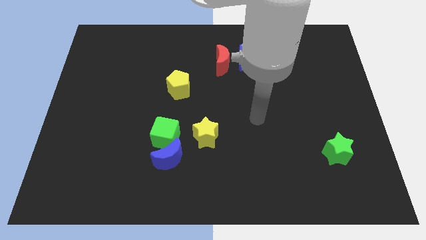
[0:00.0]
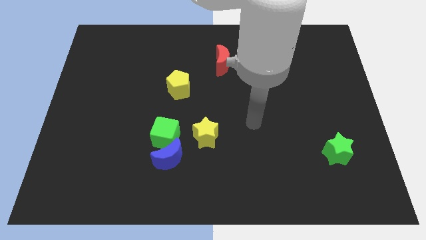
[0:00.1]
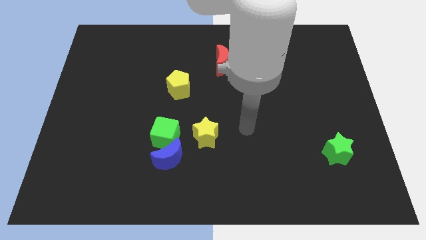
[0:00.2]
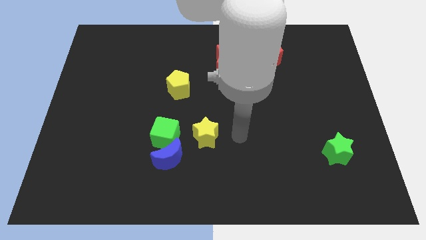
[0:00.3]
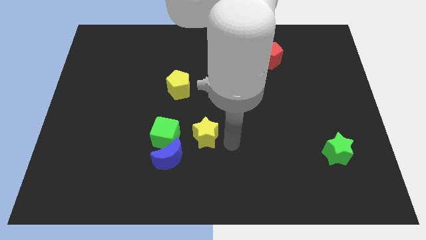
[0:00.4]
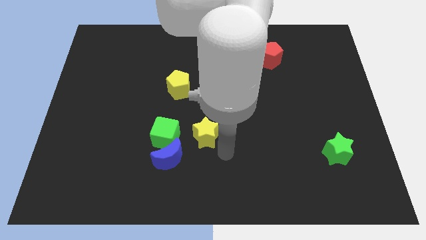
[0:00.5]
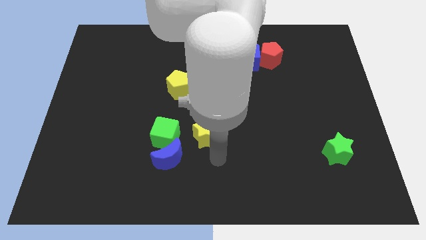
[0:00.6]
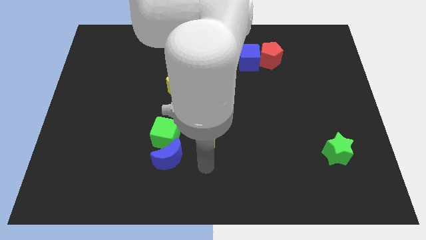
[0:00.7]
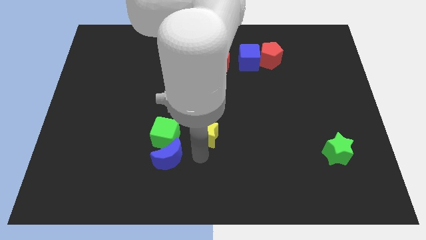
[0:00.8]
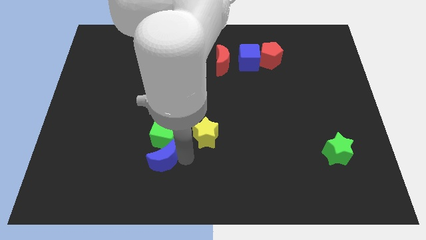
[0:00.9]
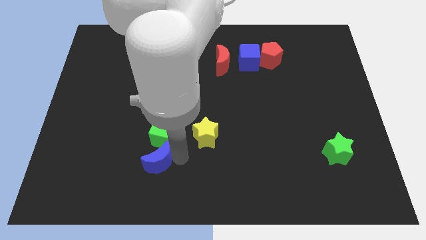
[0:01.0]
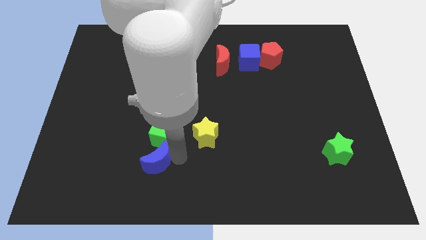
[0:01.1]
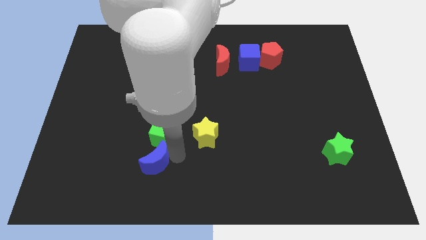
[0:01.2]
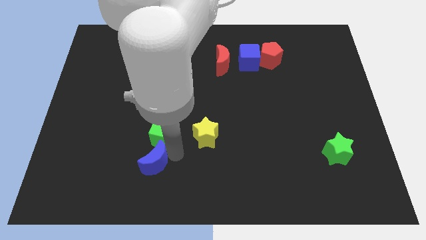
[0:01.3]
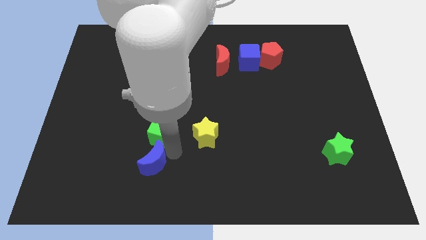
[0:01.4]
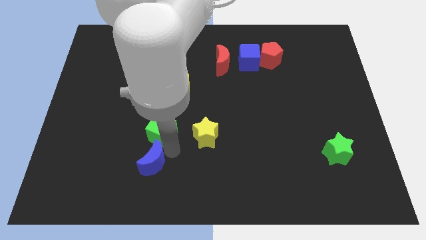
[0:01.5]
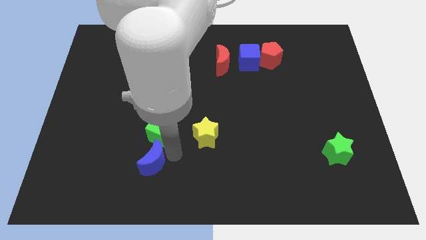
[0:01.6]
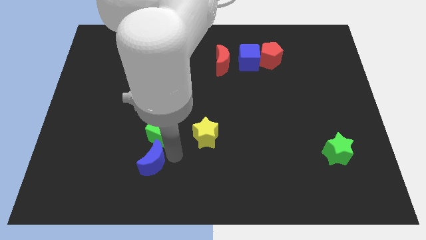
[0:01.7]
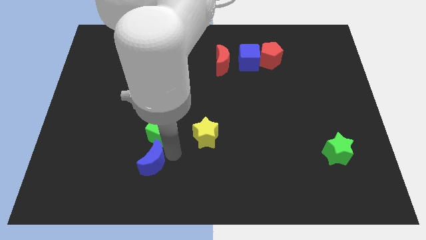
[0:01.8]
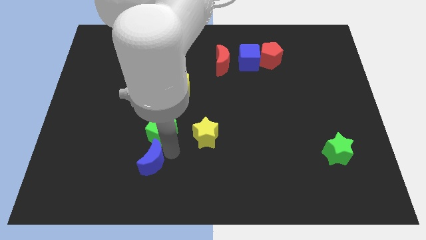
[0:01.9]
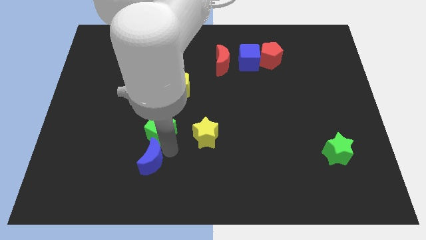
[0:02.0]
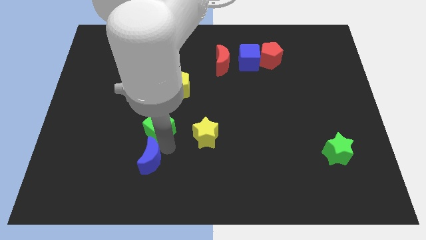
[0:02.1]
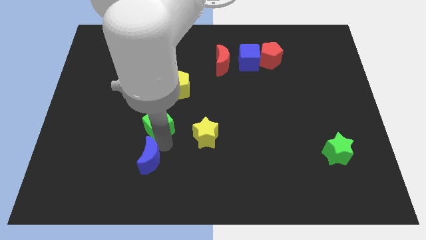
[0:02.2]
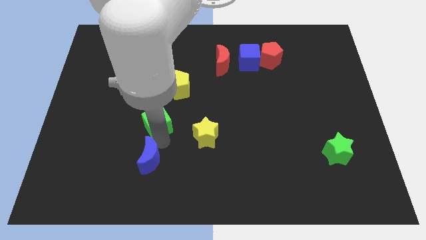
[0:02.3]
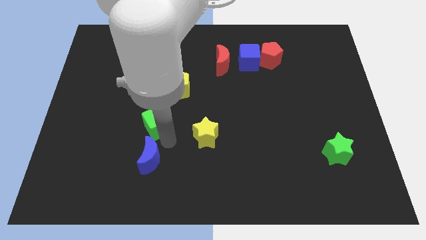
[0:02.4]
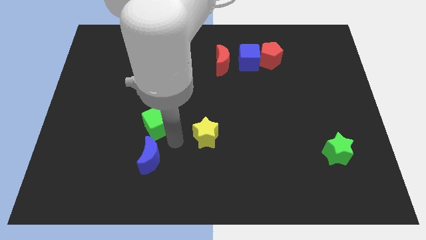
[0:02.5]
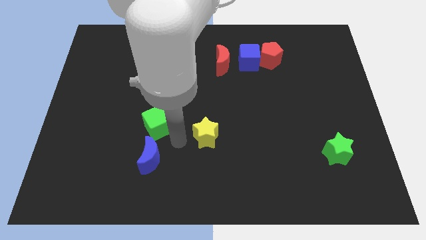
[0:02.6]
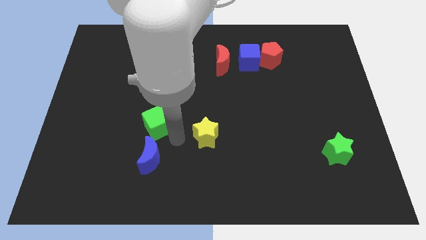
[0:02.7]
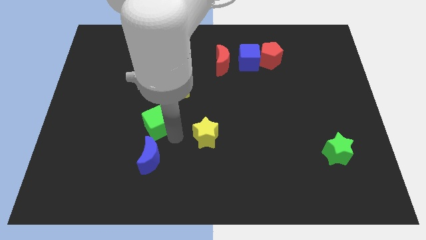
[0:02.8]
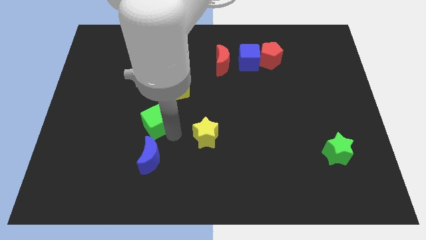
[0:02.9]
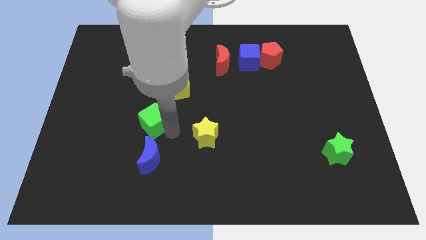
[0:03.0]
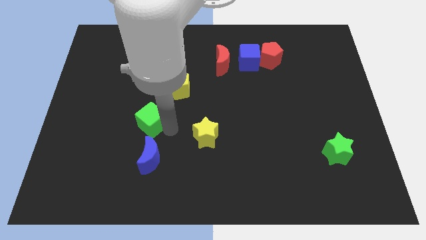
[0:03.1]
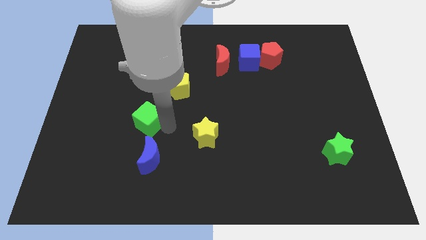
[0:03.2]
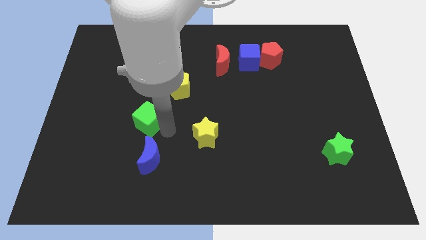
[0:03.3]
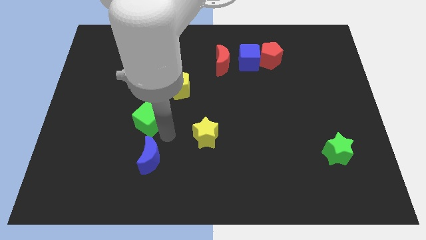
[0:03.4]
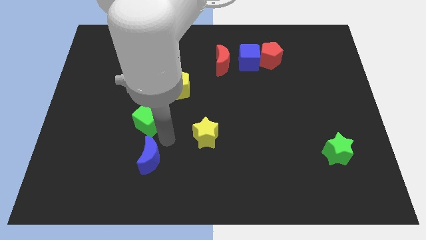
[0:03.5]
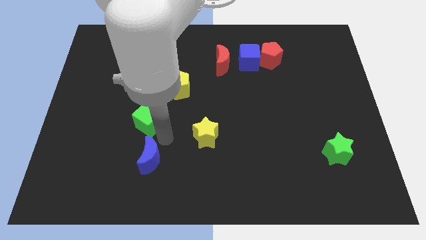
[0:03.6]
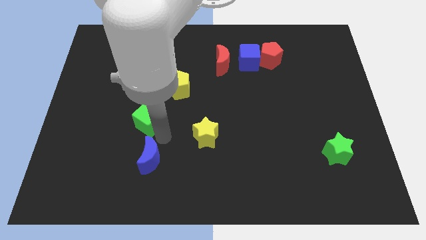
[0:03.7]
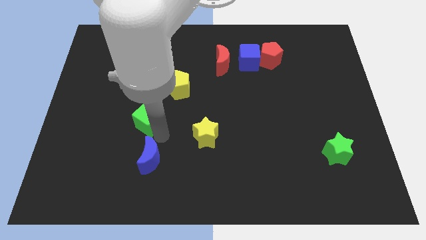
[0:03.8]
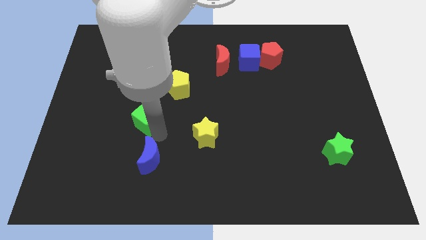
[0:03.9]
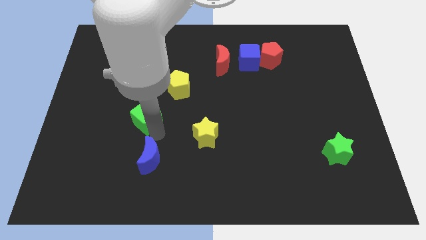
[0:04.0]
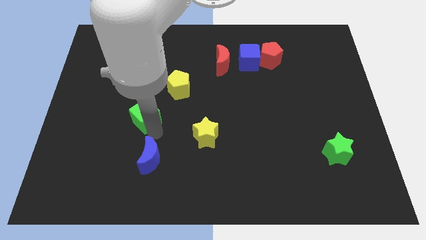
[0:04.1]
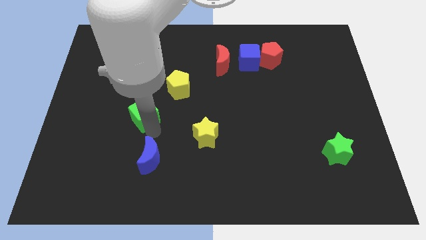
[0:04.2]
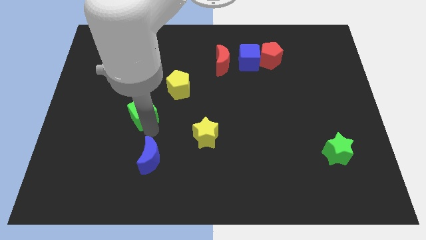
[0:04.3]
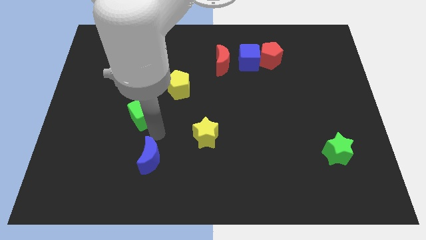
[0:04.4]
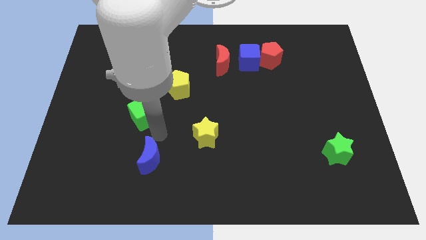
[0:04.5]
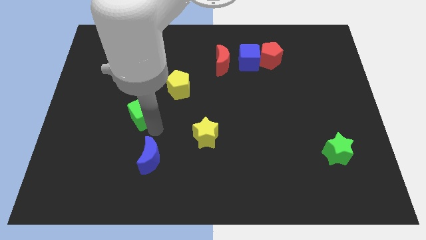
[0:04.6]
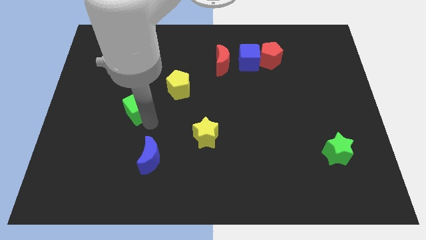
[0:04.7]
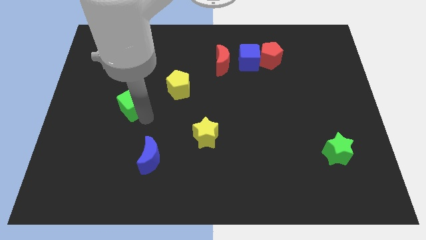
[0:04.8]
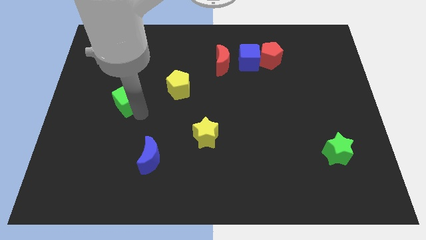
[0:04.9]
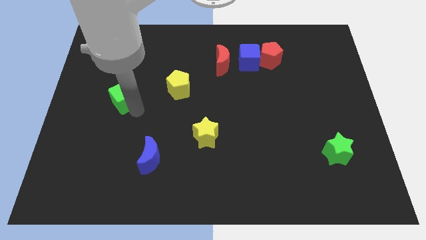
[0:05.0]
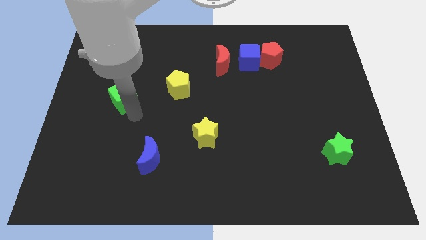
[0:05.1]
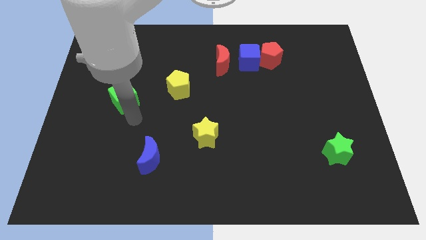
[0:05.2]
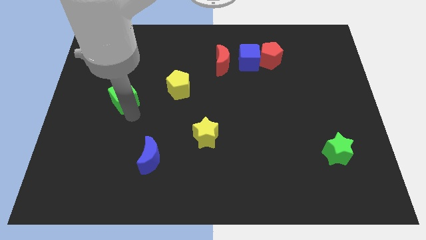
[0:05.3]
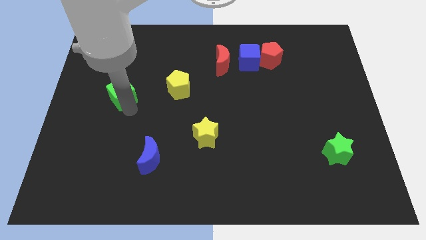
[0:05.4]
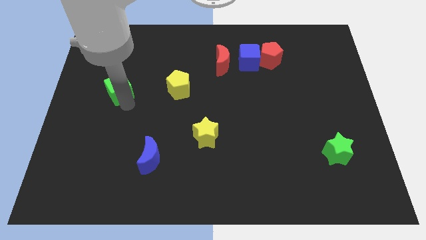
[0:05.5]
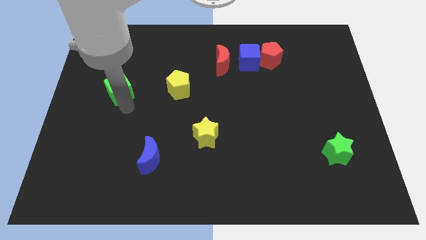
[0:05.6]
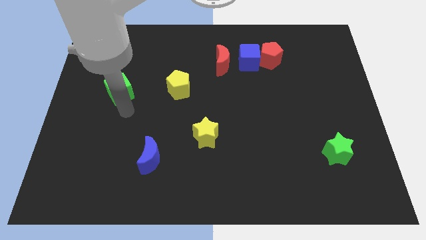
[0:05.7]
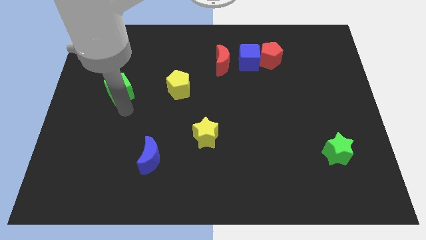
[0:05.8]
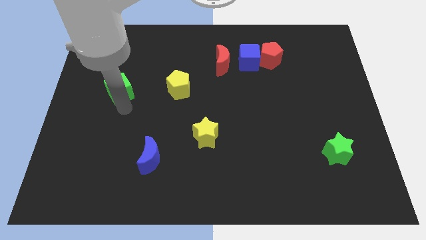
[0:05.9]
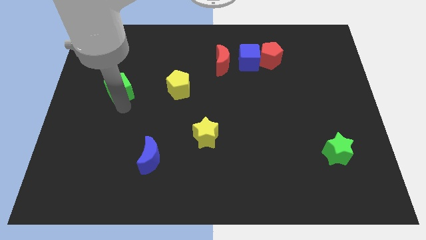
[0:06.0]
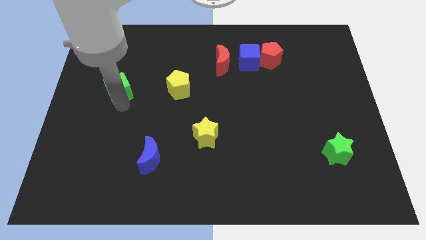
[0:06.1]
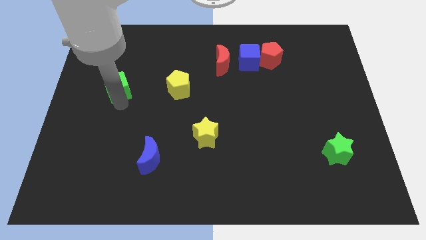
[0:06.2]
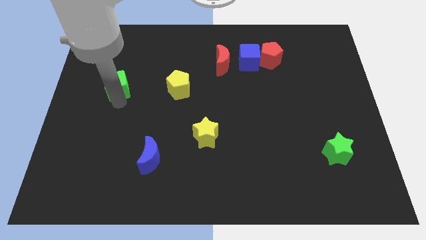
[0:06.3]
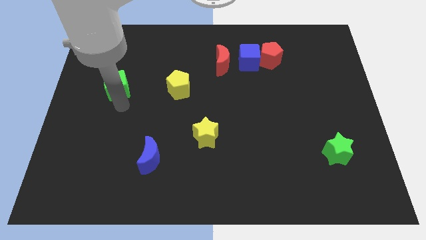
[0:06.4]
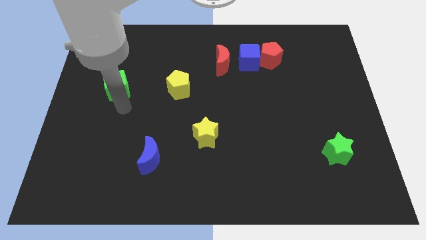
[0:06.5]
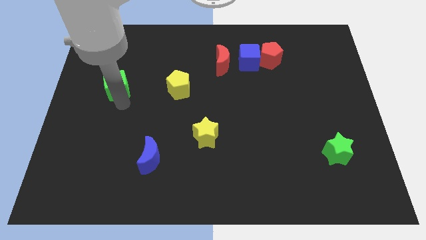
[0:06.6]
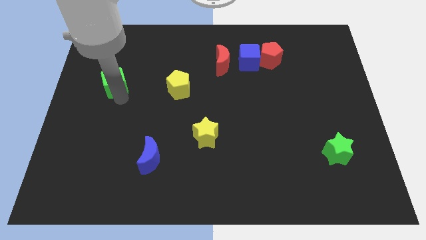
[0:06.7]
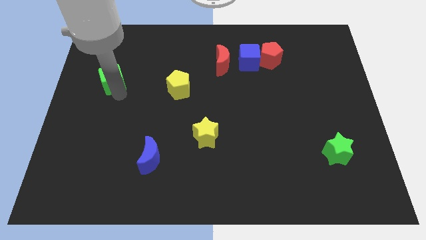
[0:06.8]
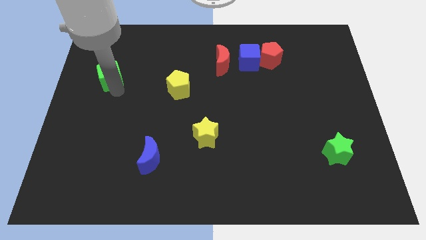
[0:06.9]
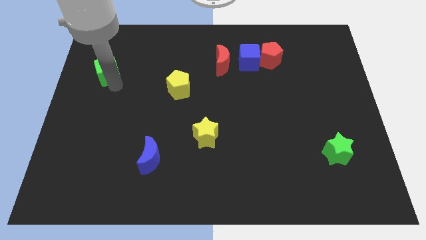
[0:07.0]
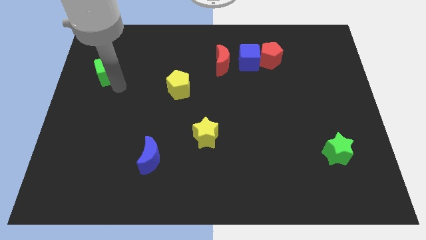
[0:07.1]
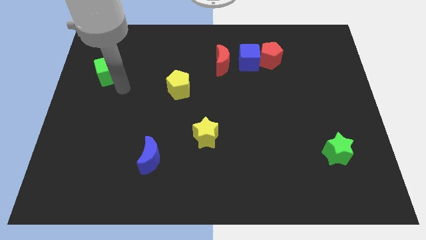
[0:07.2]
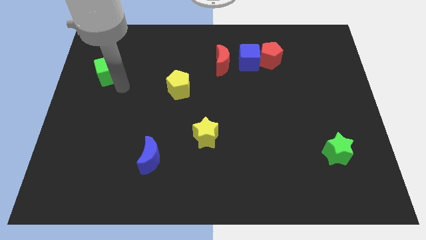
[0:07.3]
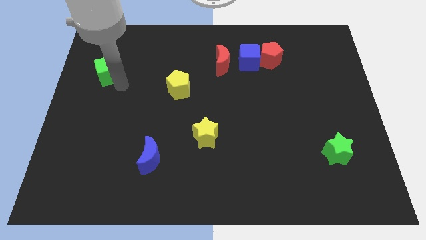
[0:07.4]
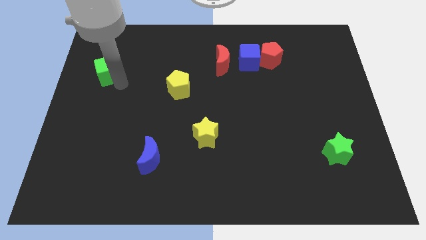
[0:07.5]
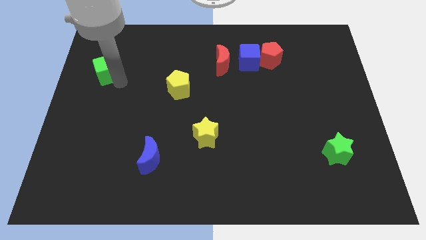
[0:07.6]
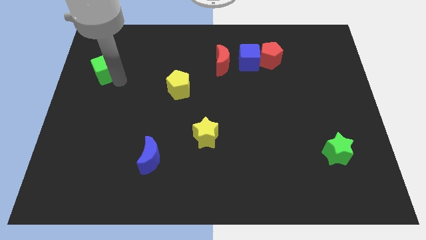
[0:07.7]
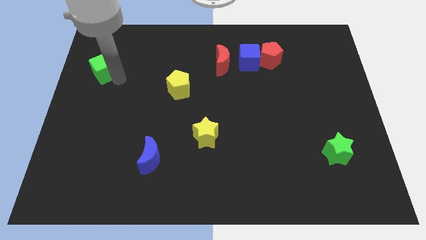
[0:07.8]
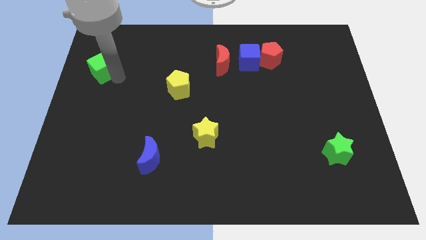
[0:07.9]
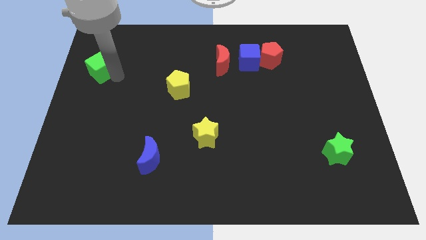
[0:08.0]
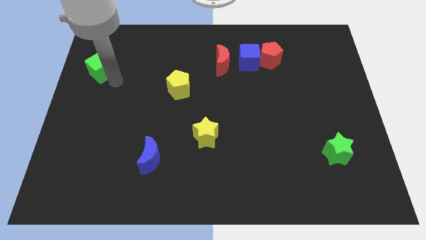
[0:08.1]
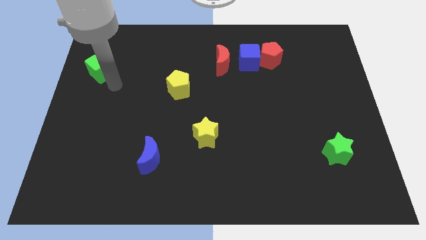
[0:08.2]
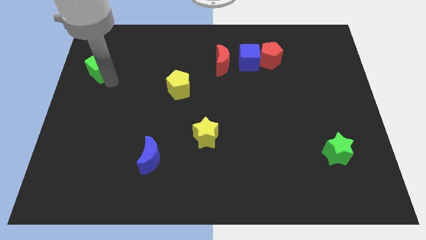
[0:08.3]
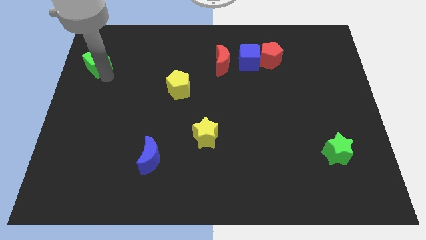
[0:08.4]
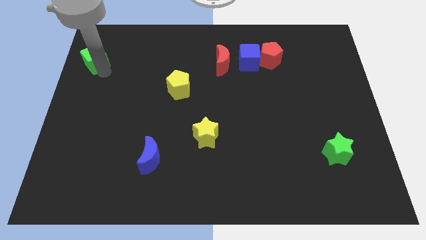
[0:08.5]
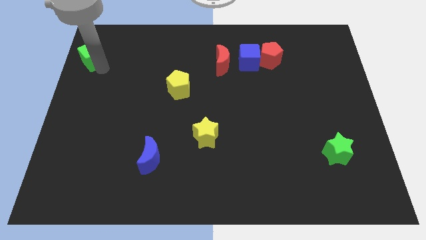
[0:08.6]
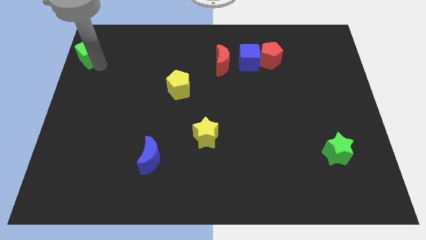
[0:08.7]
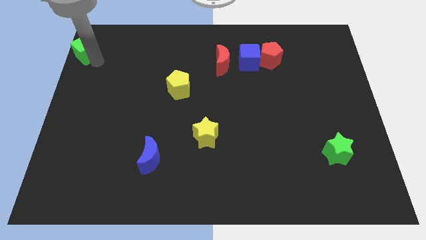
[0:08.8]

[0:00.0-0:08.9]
slide the green cube to the top left corner
